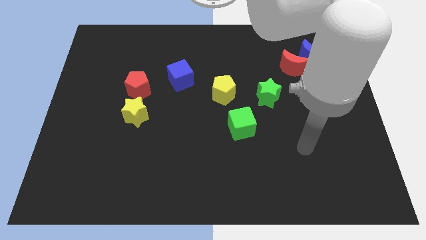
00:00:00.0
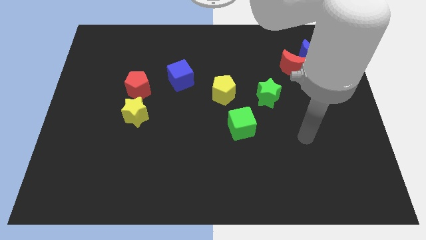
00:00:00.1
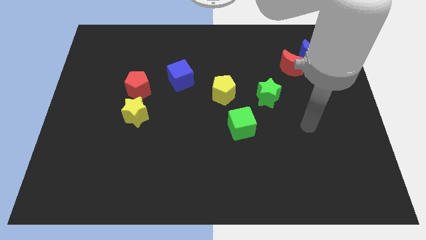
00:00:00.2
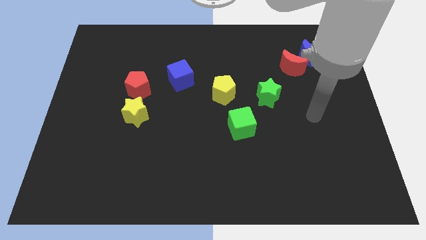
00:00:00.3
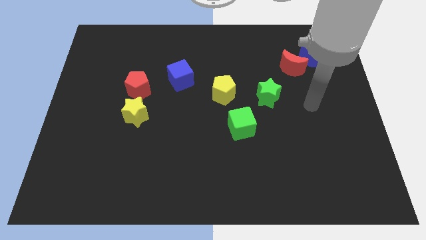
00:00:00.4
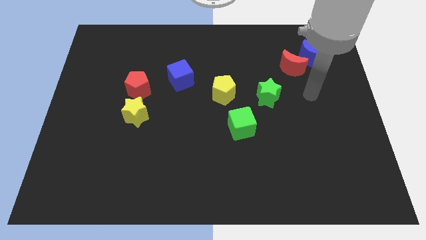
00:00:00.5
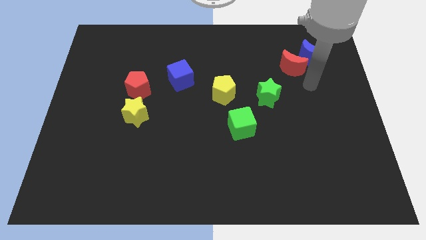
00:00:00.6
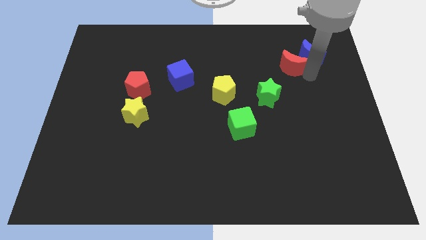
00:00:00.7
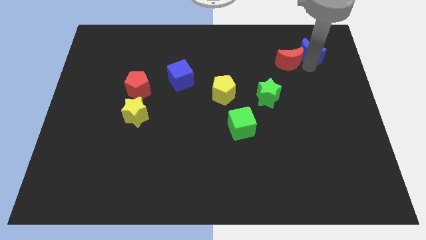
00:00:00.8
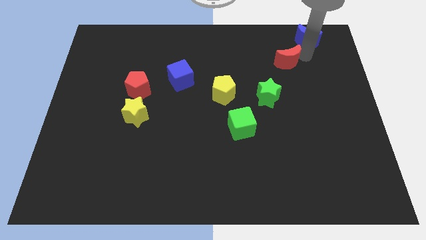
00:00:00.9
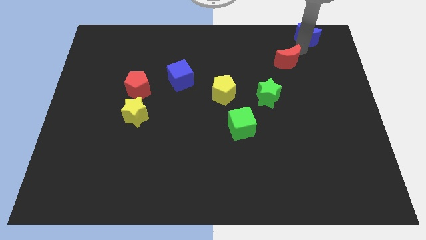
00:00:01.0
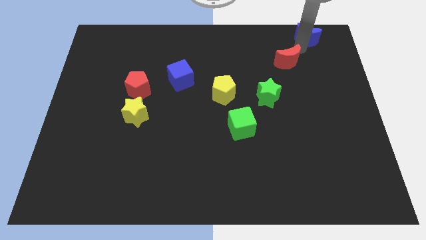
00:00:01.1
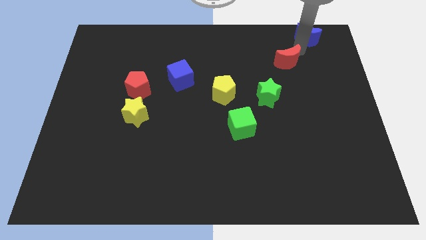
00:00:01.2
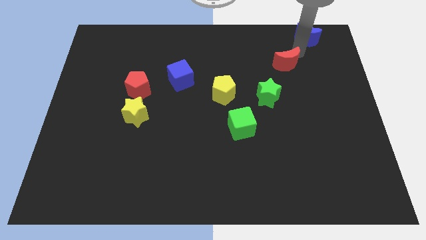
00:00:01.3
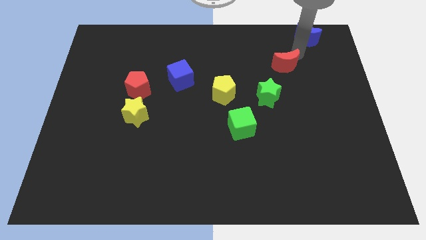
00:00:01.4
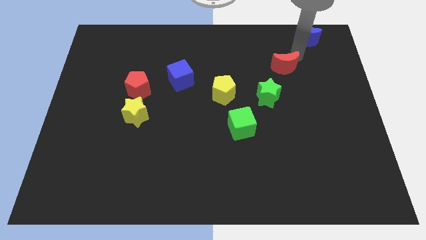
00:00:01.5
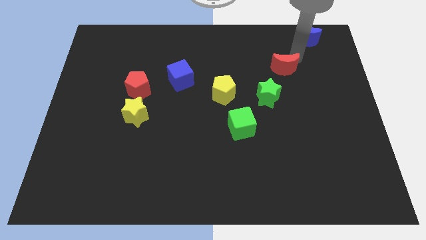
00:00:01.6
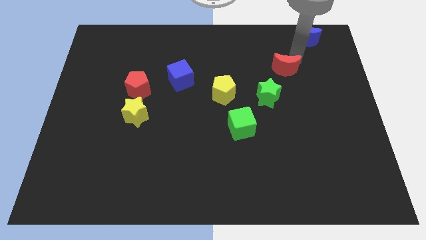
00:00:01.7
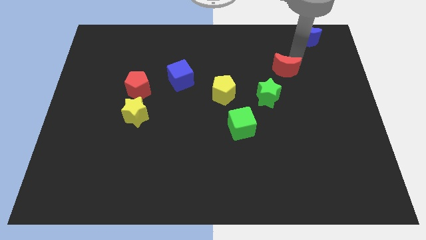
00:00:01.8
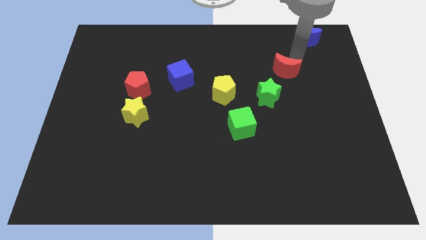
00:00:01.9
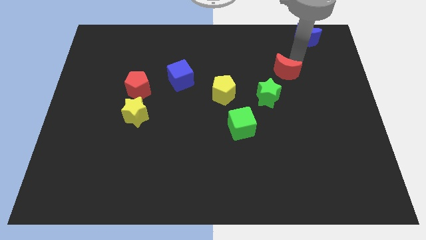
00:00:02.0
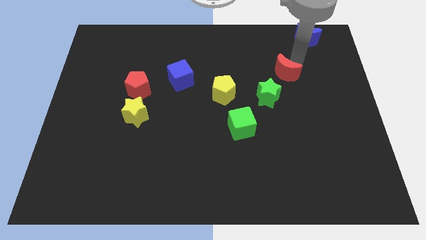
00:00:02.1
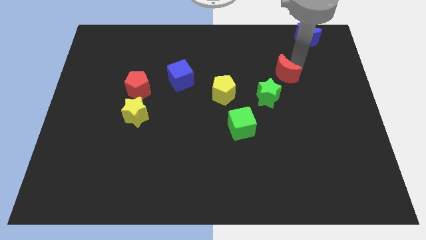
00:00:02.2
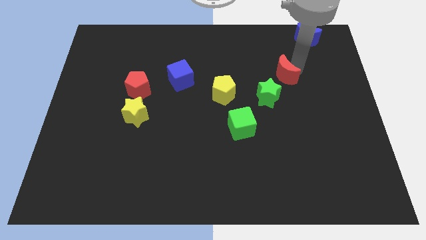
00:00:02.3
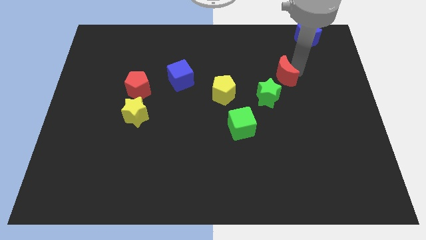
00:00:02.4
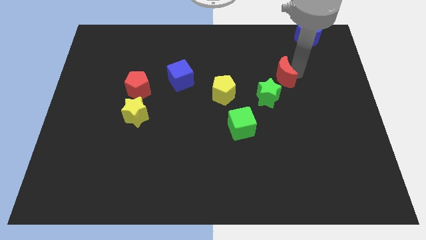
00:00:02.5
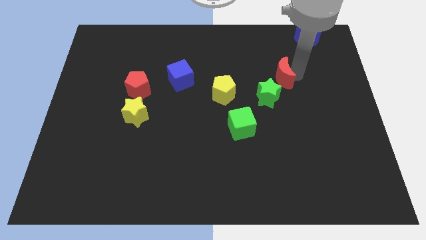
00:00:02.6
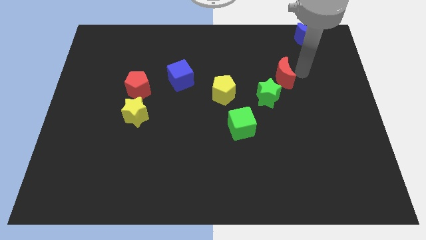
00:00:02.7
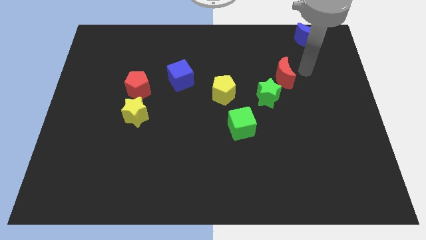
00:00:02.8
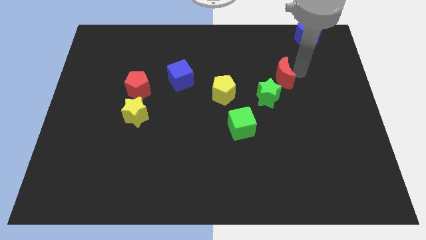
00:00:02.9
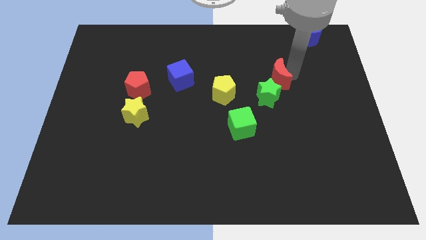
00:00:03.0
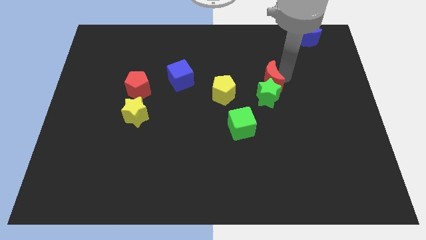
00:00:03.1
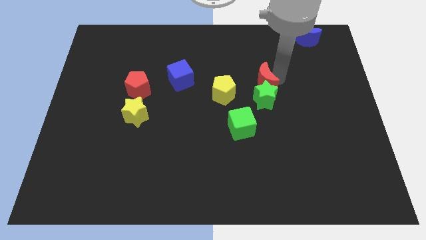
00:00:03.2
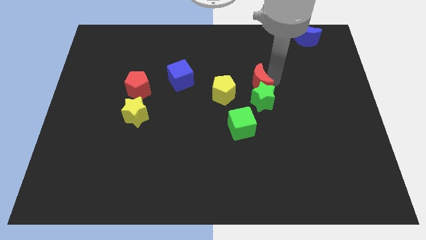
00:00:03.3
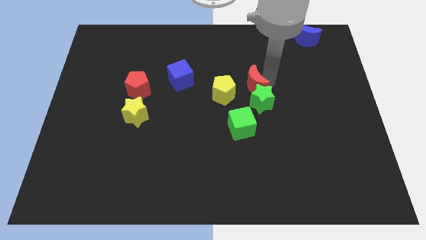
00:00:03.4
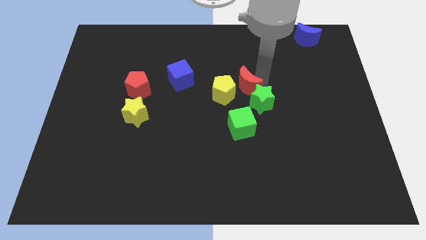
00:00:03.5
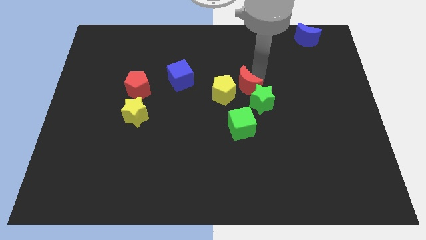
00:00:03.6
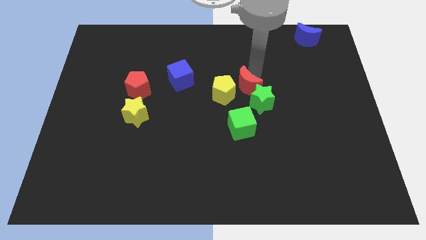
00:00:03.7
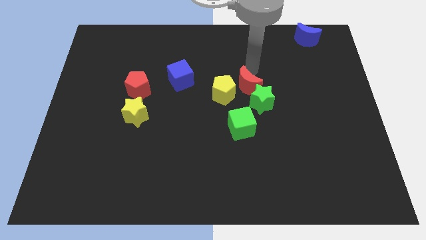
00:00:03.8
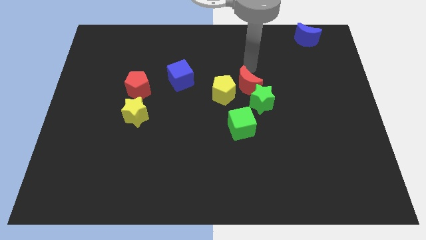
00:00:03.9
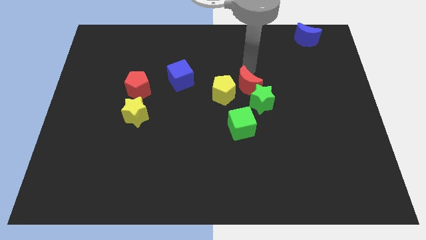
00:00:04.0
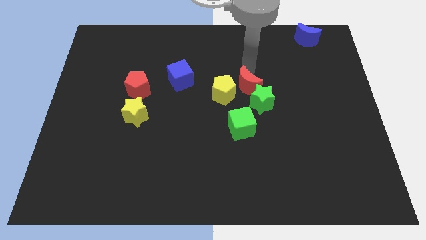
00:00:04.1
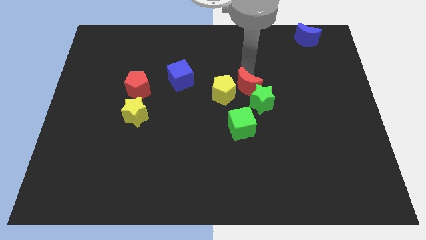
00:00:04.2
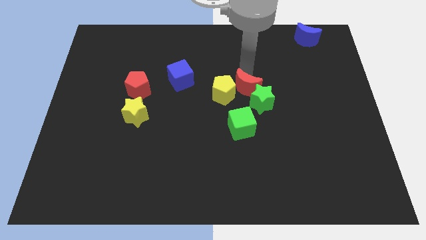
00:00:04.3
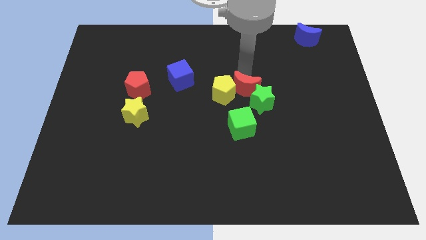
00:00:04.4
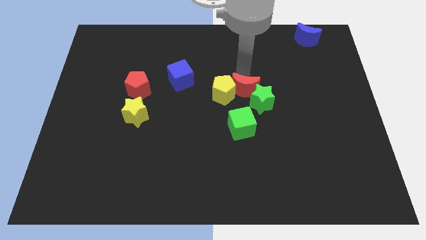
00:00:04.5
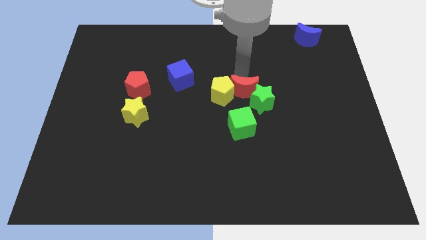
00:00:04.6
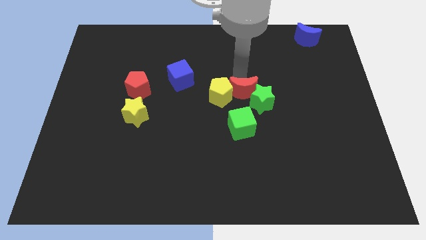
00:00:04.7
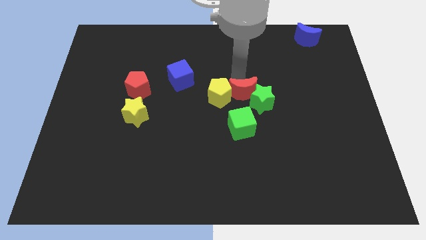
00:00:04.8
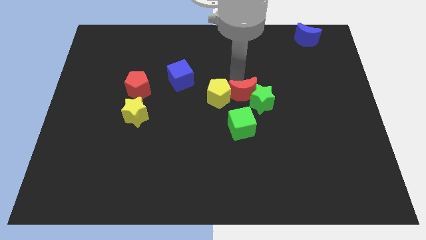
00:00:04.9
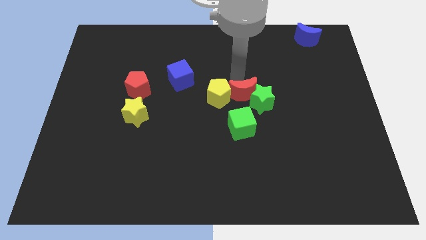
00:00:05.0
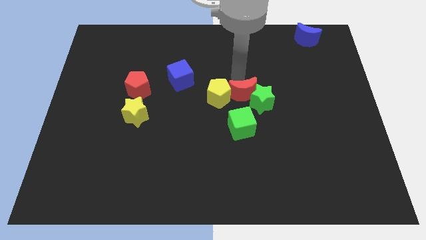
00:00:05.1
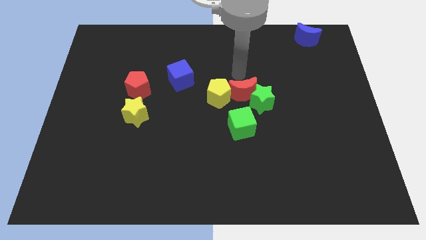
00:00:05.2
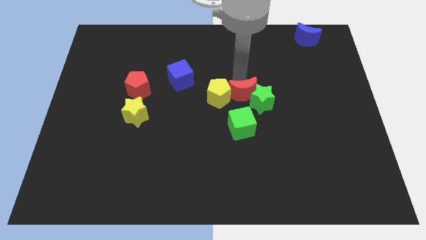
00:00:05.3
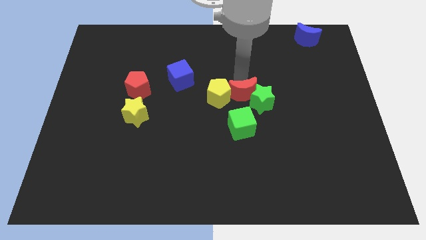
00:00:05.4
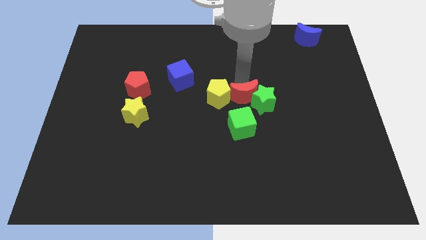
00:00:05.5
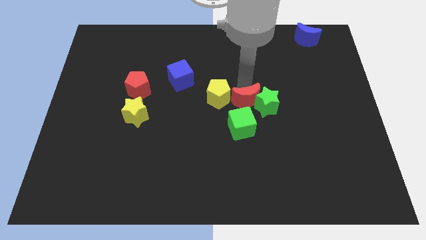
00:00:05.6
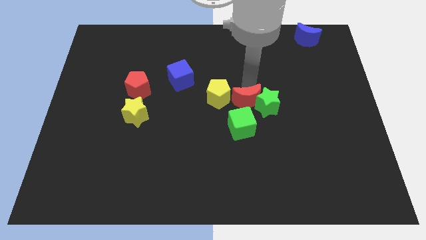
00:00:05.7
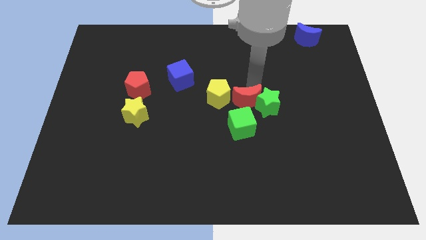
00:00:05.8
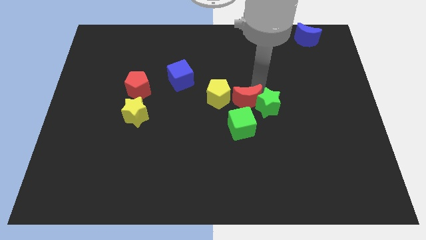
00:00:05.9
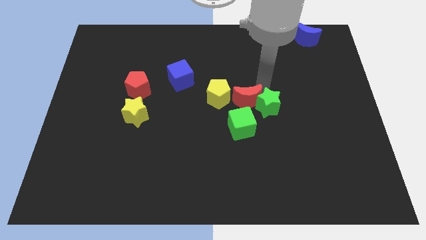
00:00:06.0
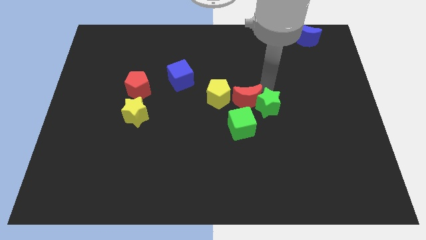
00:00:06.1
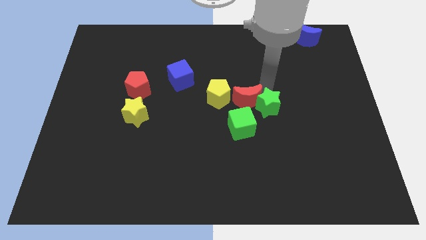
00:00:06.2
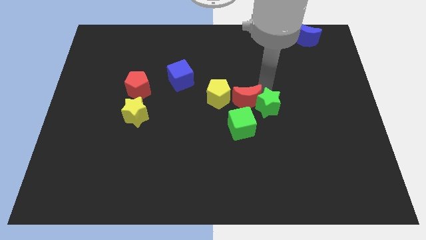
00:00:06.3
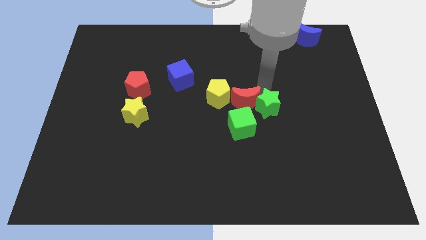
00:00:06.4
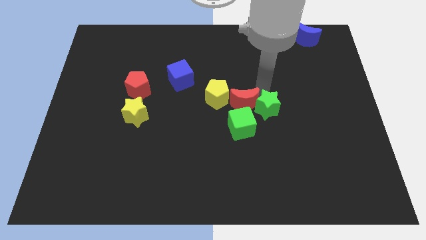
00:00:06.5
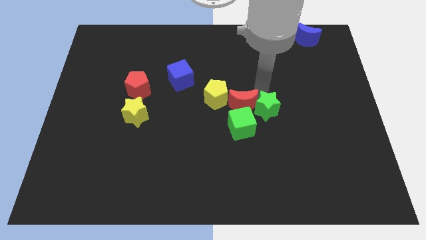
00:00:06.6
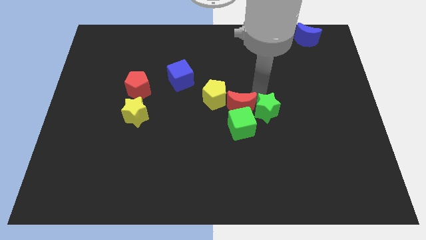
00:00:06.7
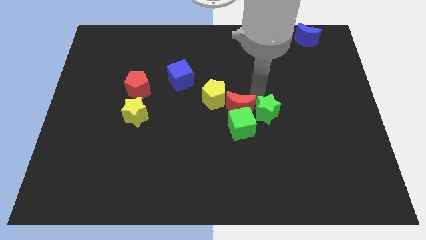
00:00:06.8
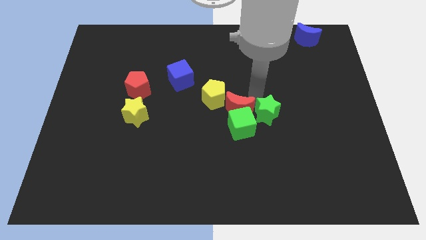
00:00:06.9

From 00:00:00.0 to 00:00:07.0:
slide the red moon downwards and to the left diagonally

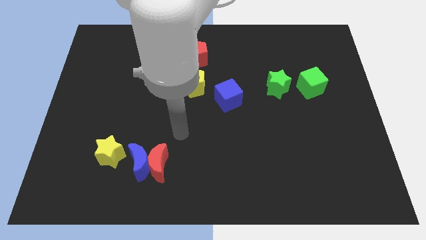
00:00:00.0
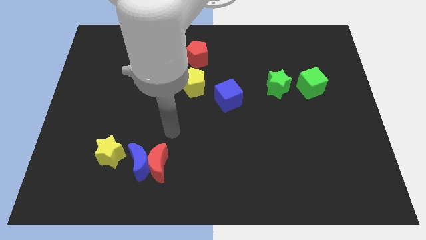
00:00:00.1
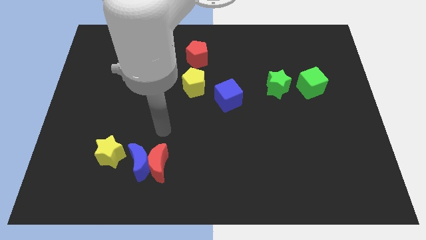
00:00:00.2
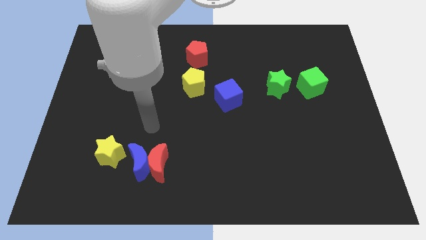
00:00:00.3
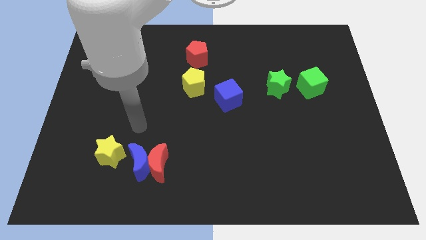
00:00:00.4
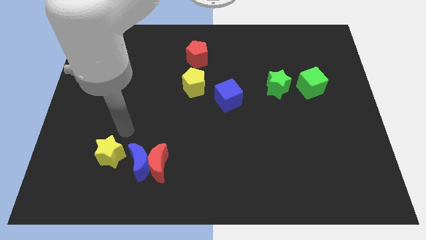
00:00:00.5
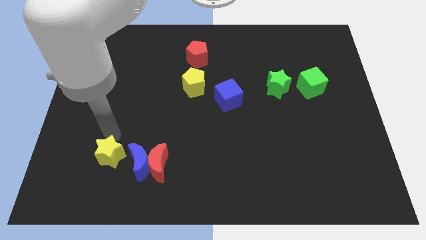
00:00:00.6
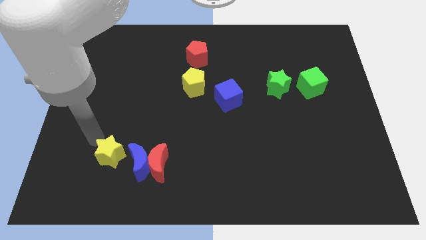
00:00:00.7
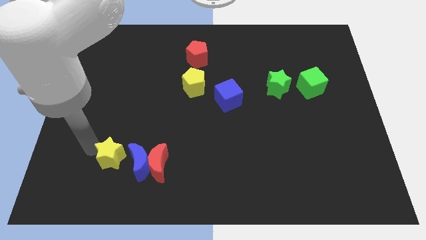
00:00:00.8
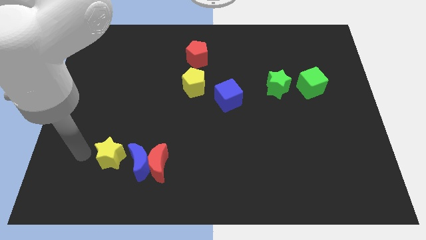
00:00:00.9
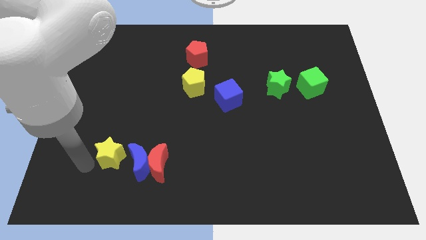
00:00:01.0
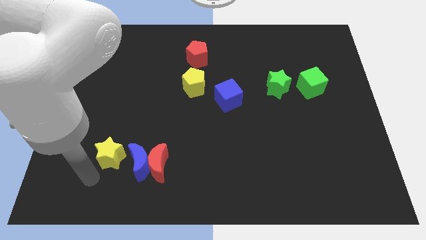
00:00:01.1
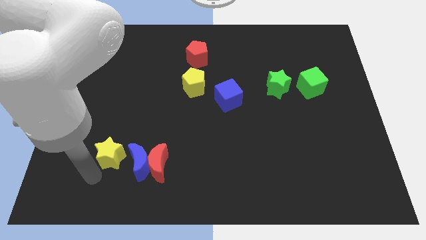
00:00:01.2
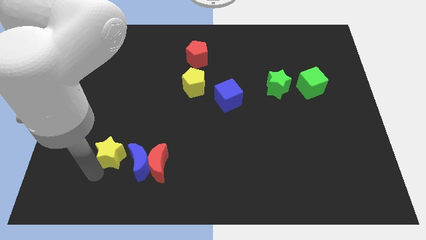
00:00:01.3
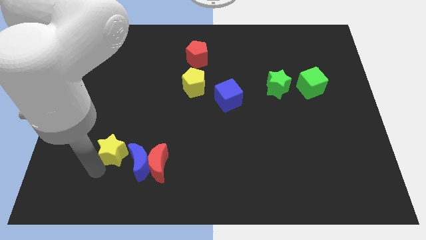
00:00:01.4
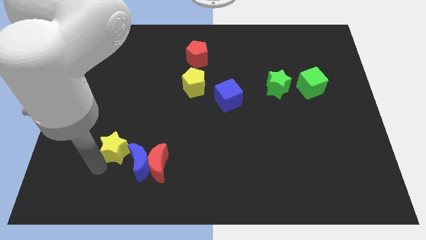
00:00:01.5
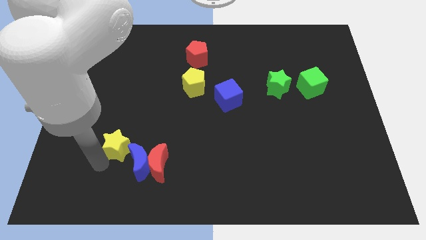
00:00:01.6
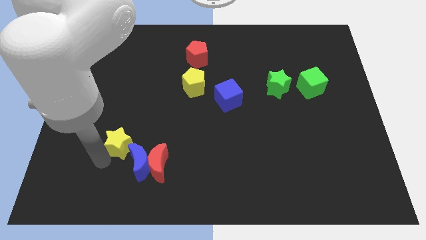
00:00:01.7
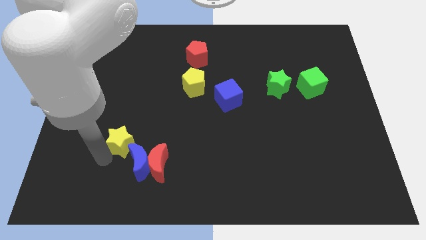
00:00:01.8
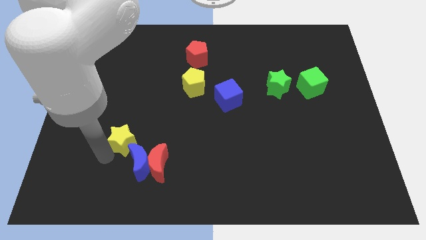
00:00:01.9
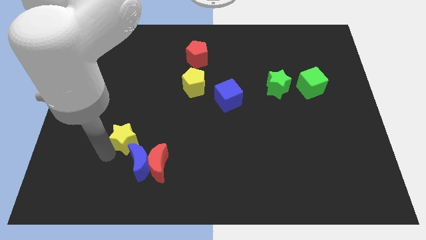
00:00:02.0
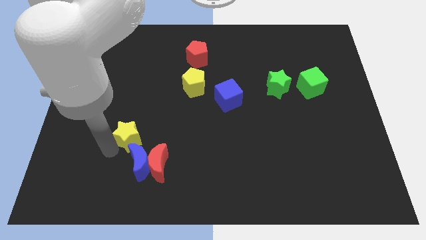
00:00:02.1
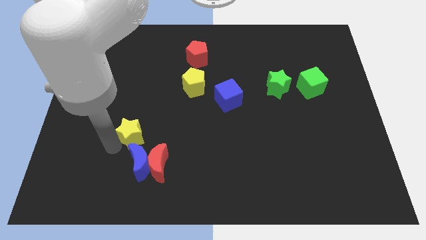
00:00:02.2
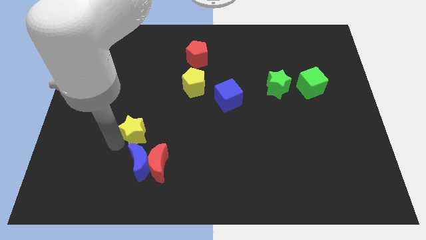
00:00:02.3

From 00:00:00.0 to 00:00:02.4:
slightly slide the yellow star up and to the right
